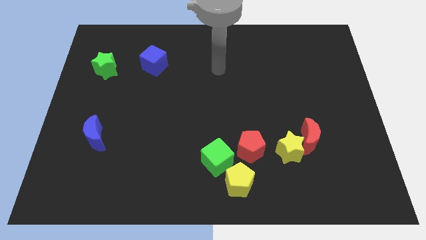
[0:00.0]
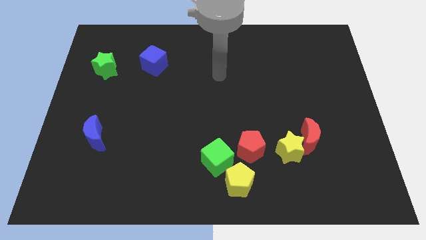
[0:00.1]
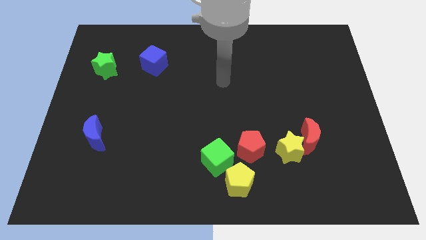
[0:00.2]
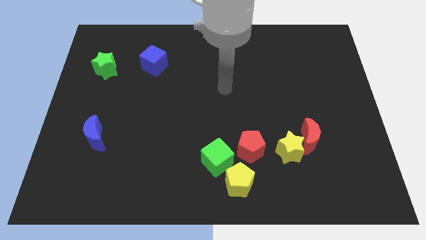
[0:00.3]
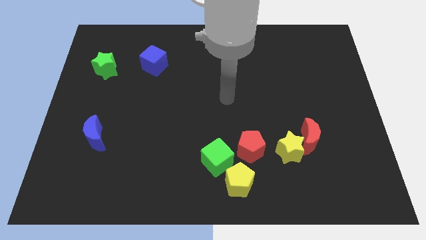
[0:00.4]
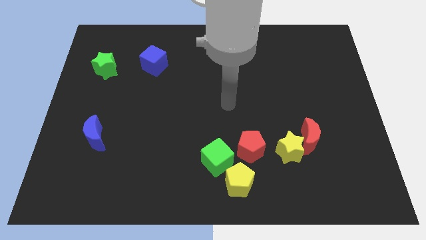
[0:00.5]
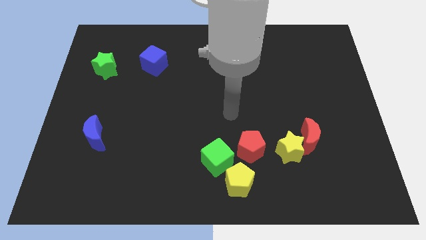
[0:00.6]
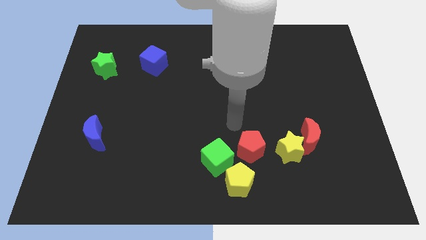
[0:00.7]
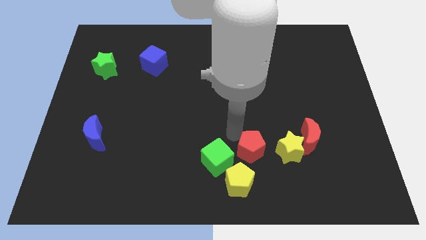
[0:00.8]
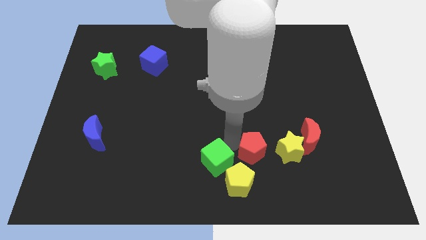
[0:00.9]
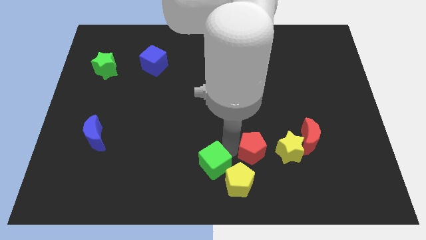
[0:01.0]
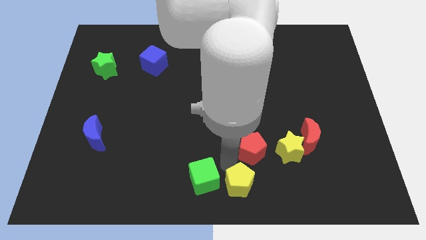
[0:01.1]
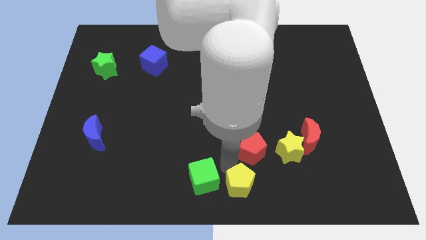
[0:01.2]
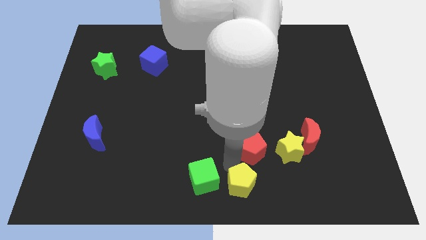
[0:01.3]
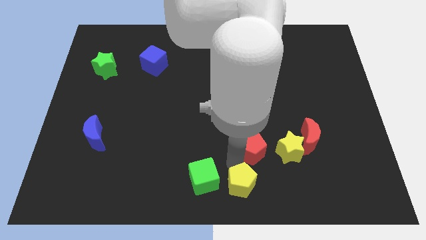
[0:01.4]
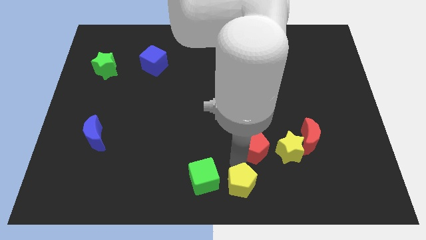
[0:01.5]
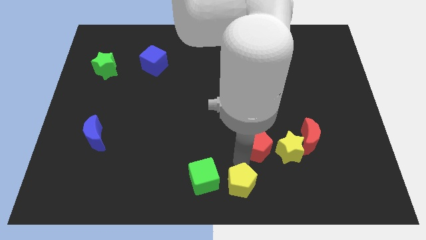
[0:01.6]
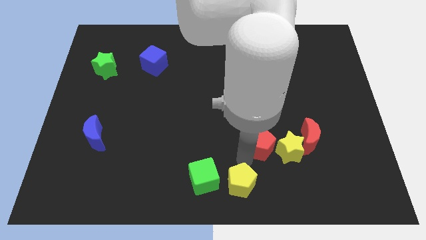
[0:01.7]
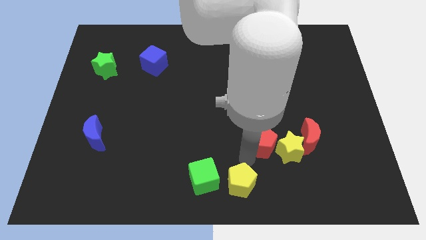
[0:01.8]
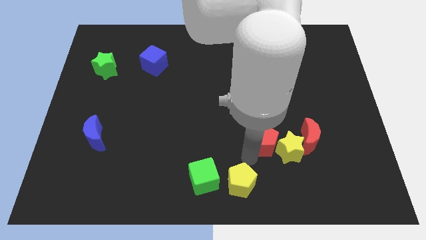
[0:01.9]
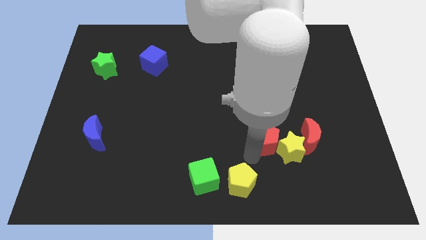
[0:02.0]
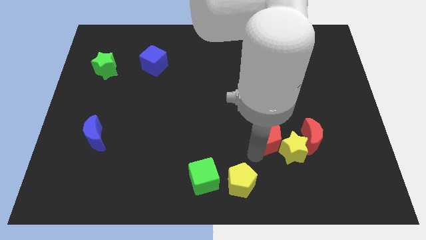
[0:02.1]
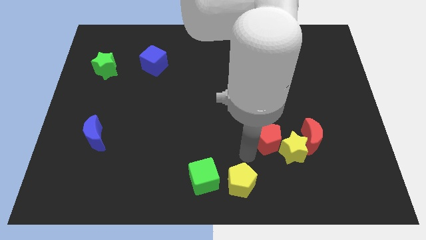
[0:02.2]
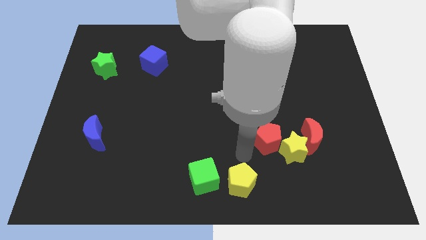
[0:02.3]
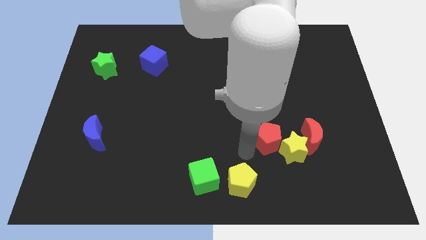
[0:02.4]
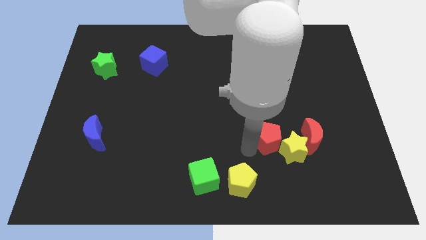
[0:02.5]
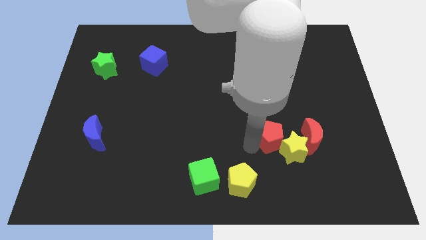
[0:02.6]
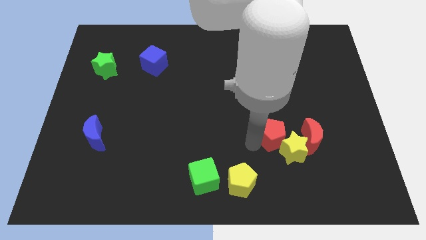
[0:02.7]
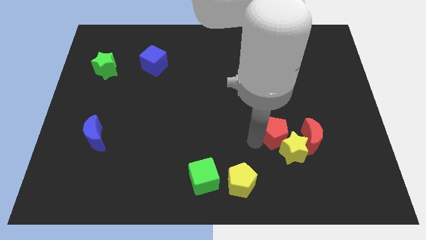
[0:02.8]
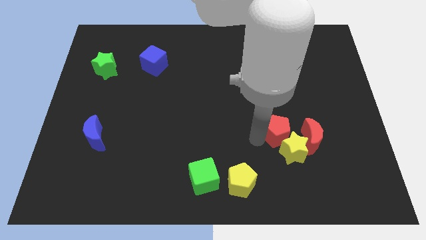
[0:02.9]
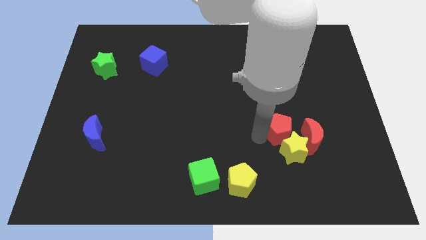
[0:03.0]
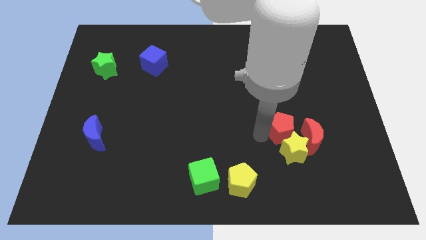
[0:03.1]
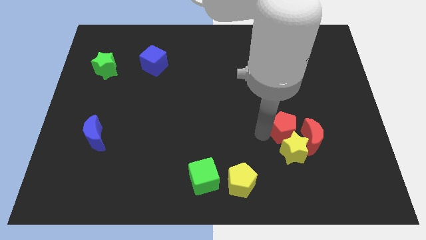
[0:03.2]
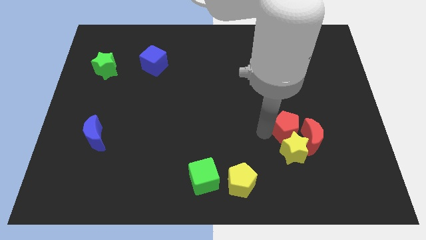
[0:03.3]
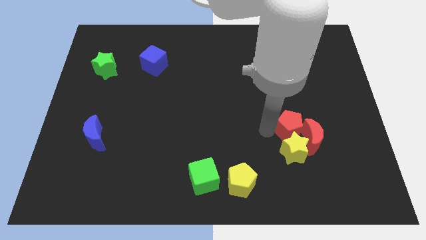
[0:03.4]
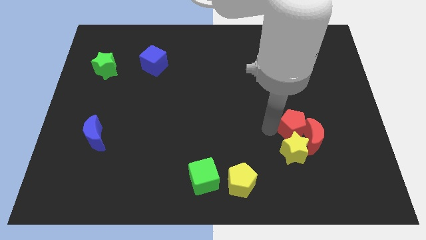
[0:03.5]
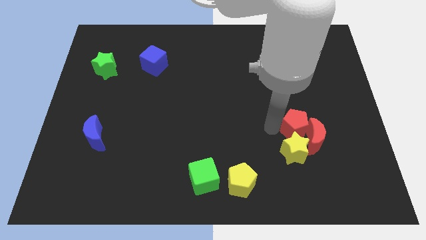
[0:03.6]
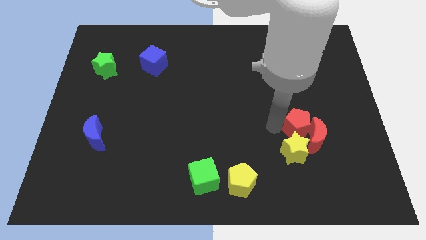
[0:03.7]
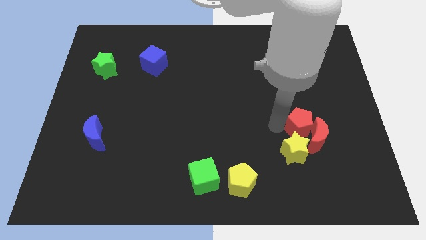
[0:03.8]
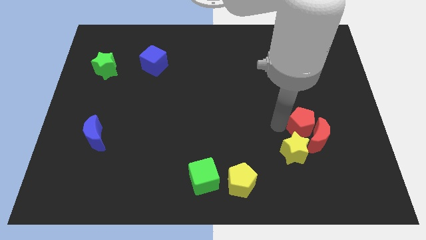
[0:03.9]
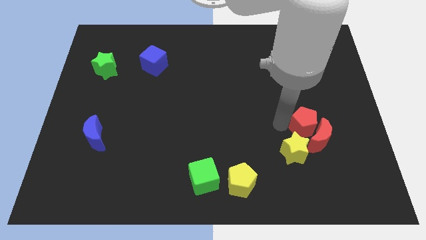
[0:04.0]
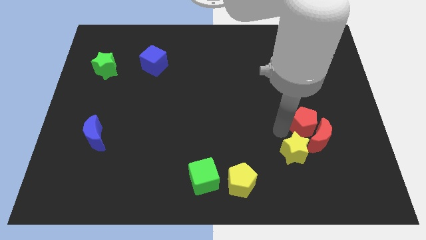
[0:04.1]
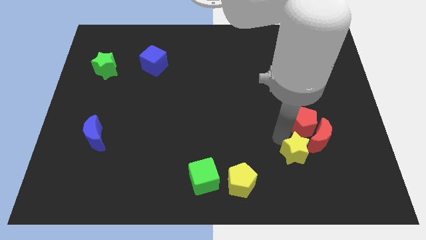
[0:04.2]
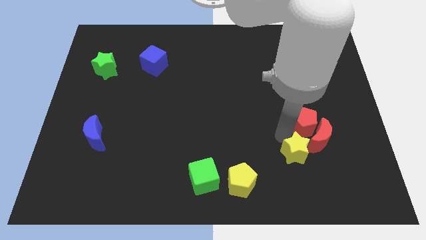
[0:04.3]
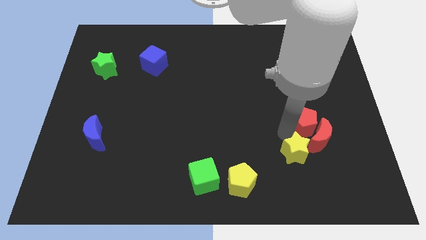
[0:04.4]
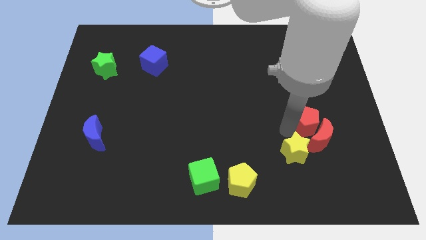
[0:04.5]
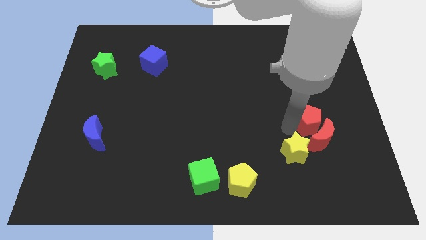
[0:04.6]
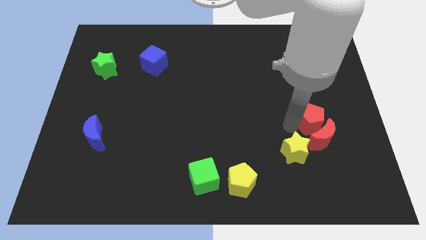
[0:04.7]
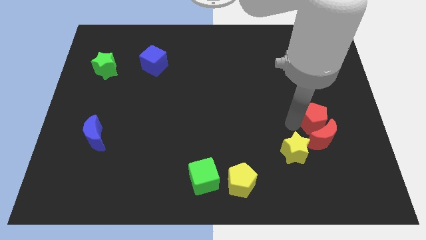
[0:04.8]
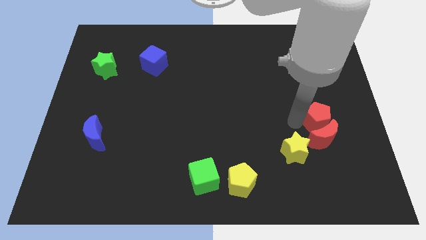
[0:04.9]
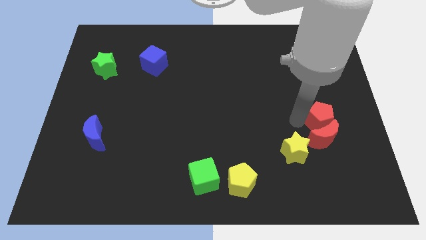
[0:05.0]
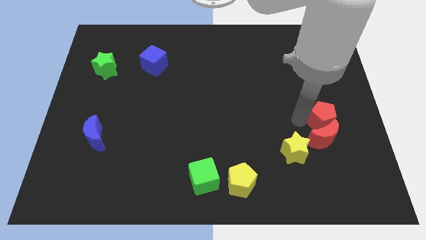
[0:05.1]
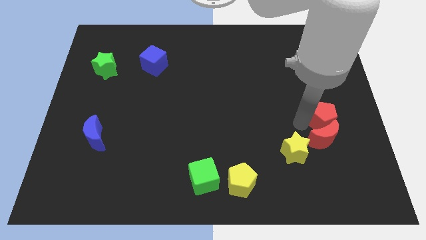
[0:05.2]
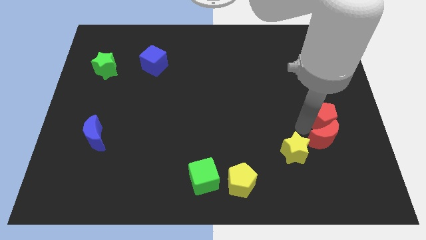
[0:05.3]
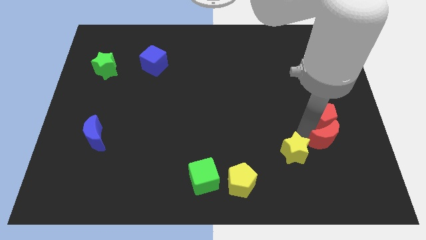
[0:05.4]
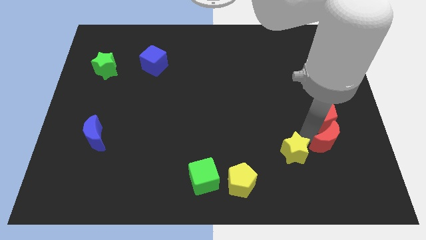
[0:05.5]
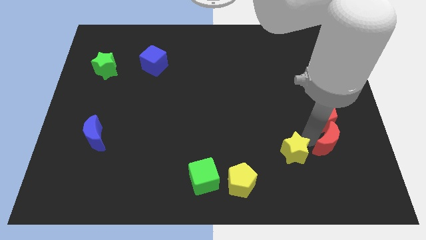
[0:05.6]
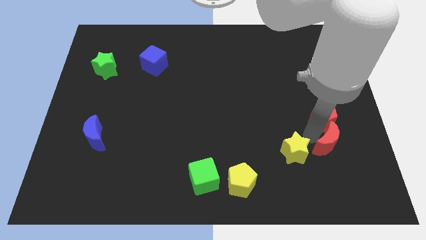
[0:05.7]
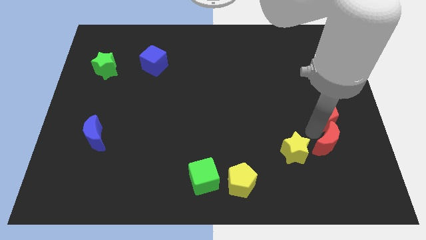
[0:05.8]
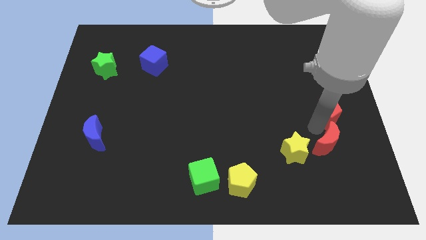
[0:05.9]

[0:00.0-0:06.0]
put the red pentagon to the right side
